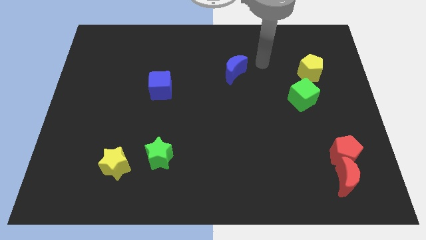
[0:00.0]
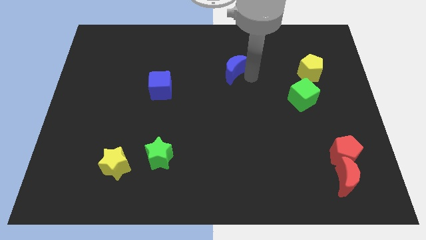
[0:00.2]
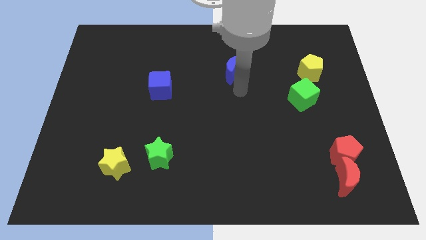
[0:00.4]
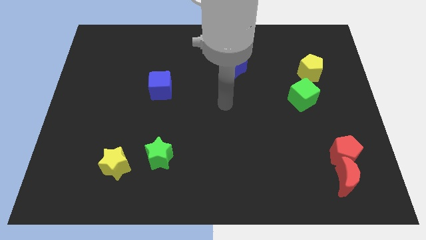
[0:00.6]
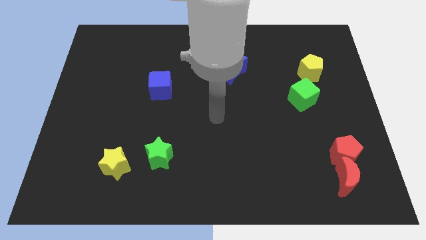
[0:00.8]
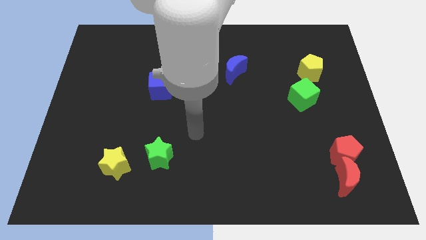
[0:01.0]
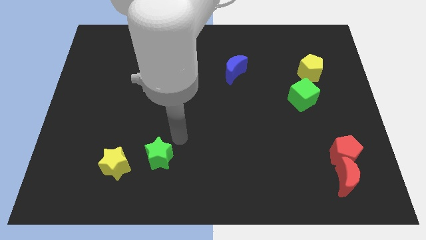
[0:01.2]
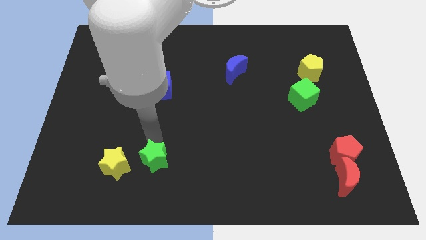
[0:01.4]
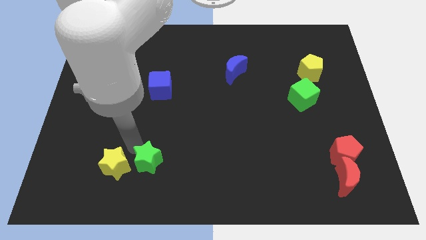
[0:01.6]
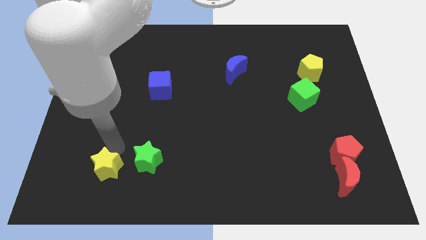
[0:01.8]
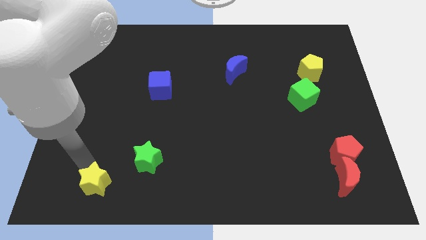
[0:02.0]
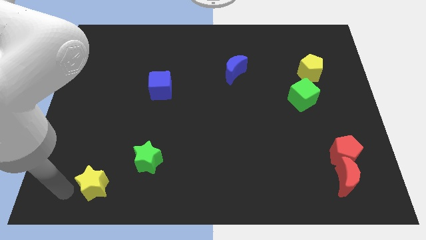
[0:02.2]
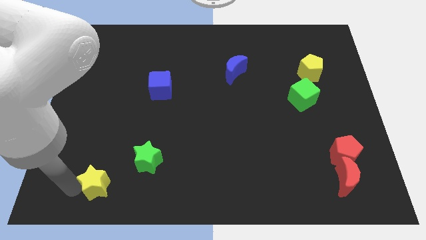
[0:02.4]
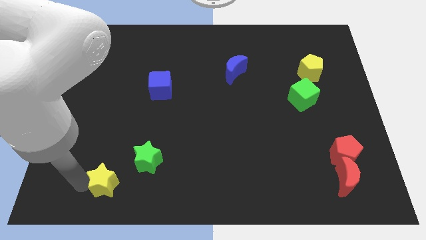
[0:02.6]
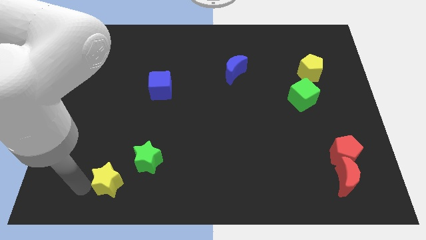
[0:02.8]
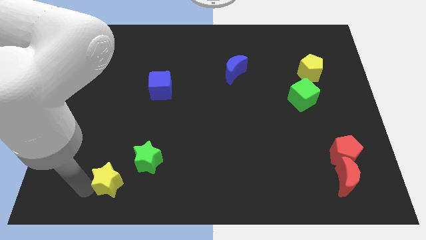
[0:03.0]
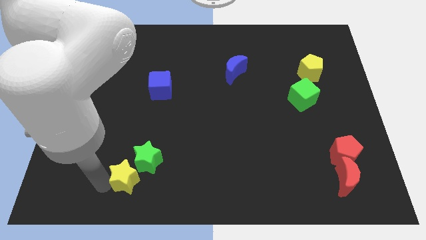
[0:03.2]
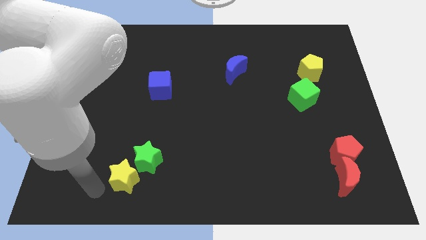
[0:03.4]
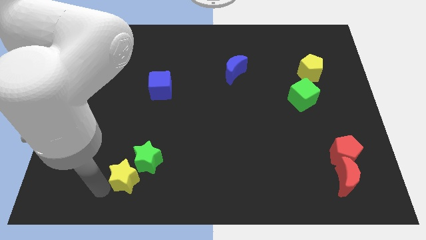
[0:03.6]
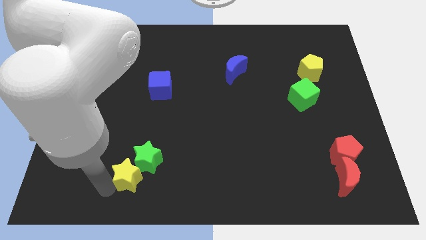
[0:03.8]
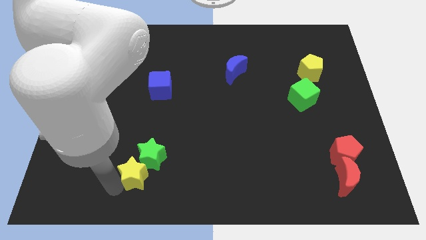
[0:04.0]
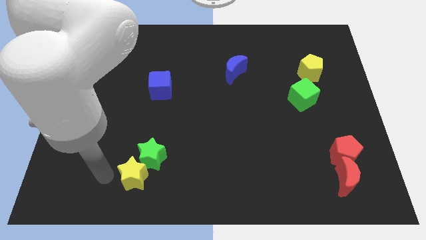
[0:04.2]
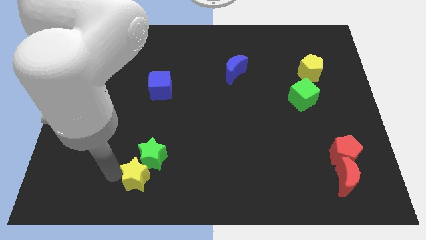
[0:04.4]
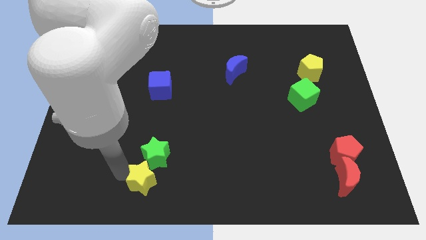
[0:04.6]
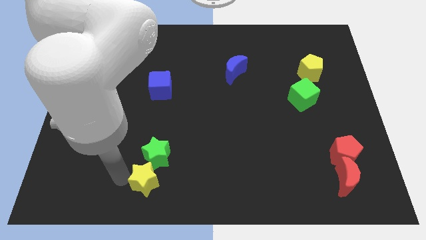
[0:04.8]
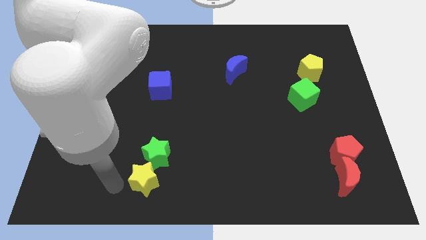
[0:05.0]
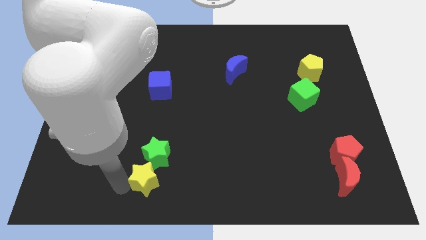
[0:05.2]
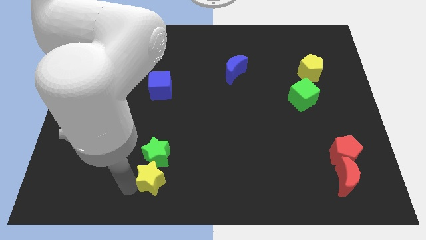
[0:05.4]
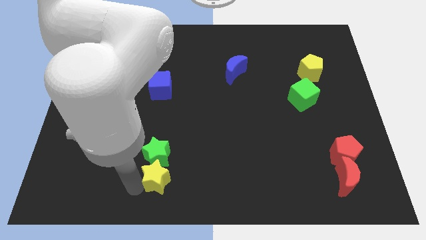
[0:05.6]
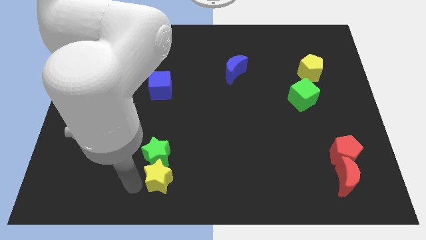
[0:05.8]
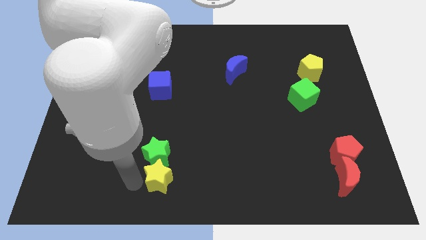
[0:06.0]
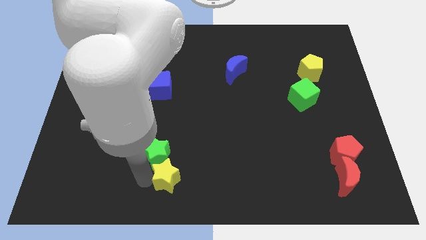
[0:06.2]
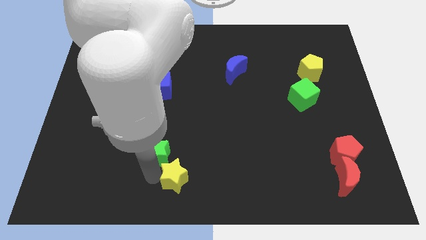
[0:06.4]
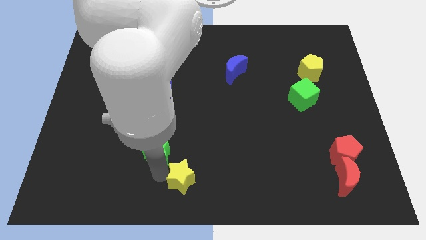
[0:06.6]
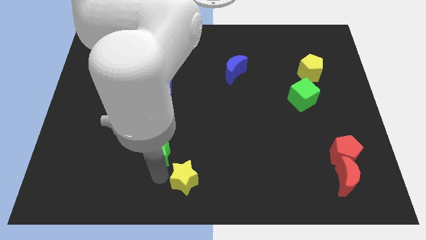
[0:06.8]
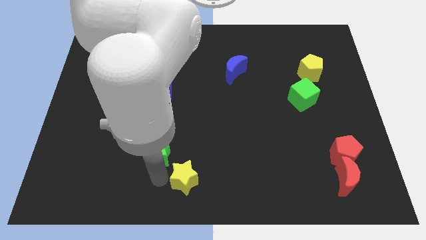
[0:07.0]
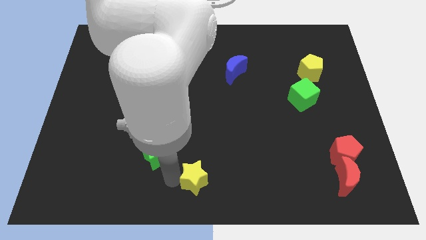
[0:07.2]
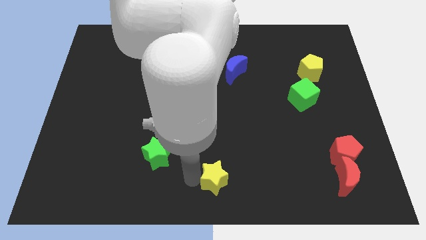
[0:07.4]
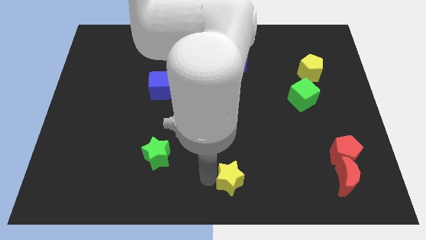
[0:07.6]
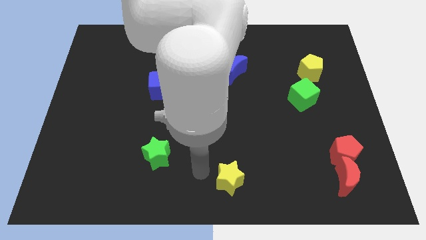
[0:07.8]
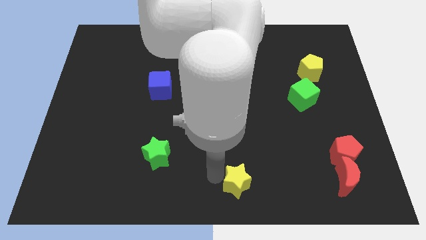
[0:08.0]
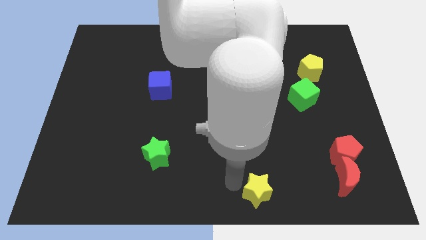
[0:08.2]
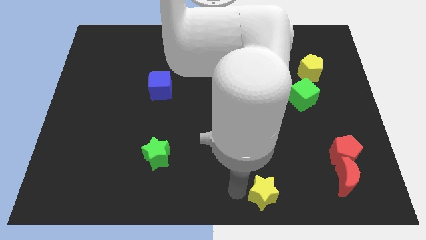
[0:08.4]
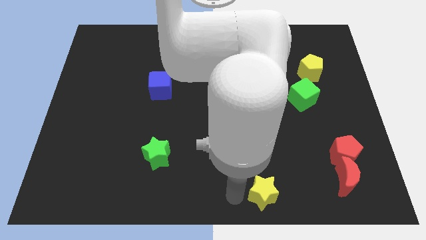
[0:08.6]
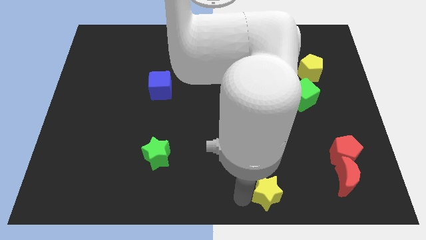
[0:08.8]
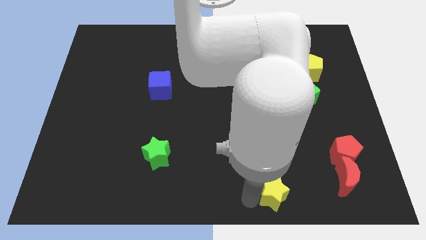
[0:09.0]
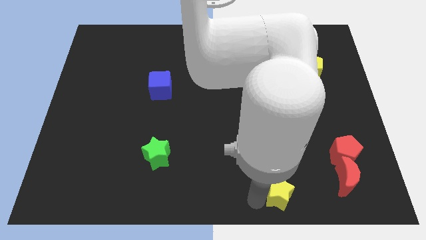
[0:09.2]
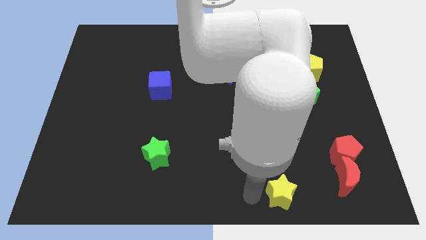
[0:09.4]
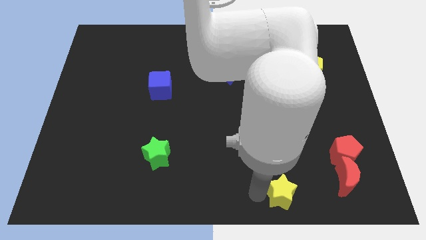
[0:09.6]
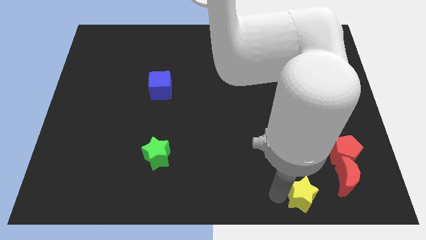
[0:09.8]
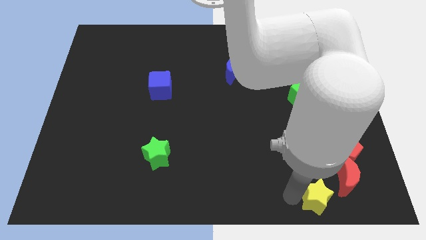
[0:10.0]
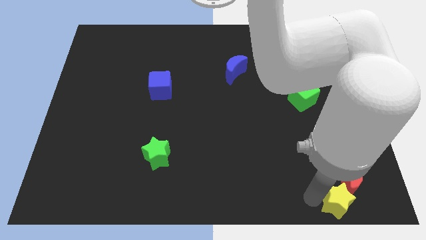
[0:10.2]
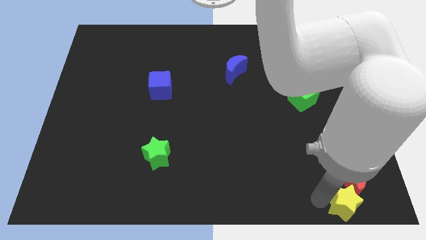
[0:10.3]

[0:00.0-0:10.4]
move the yellow star to the lower right corner

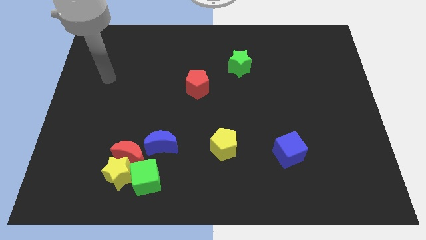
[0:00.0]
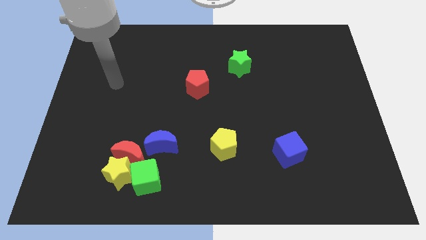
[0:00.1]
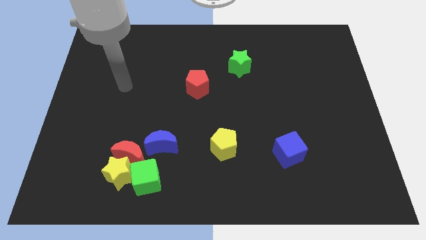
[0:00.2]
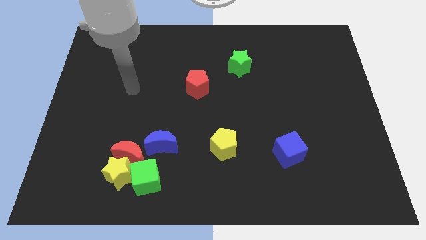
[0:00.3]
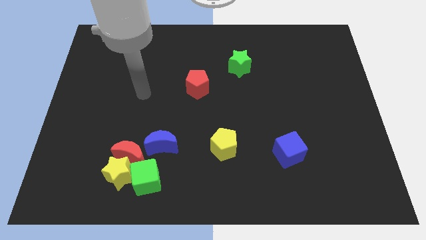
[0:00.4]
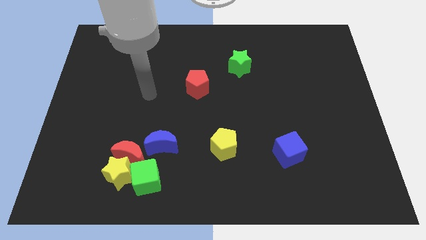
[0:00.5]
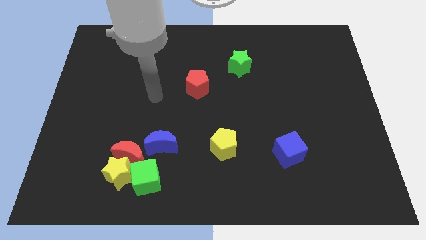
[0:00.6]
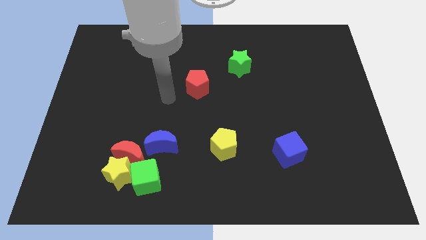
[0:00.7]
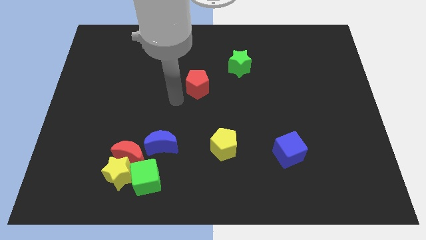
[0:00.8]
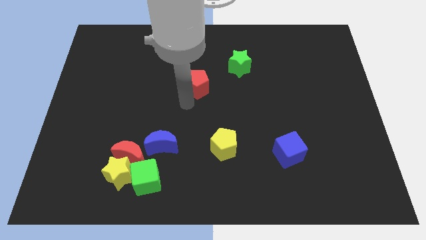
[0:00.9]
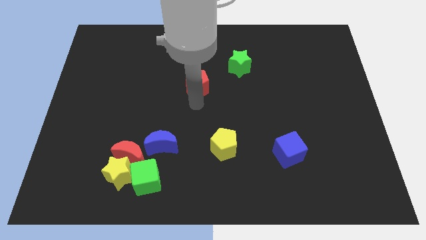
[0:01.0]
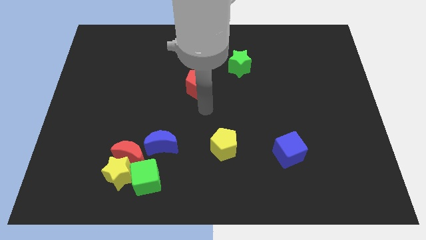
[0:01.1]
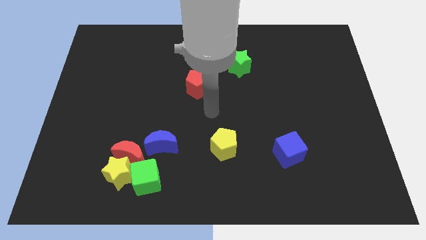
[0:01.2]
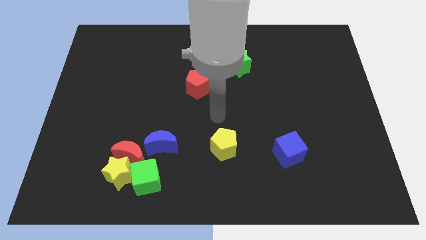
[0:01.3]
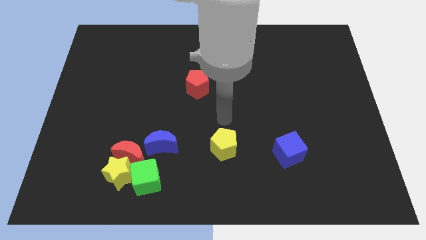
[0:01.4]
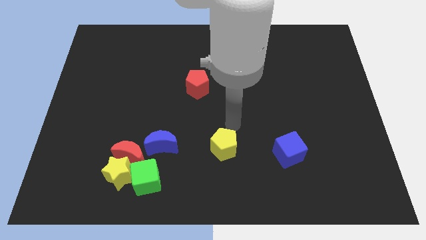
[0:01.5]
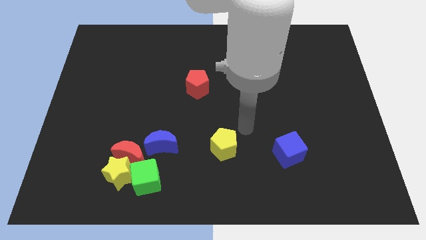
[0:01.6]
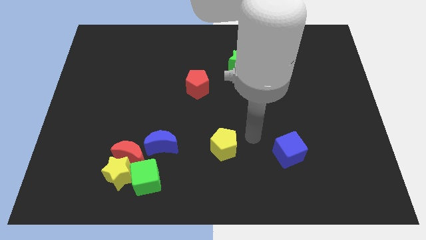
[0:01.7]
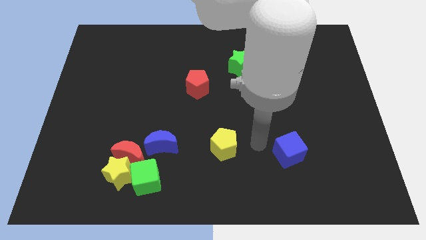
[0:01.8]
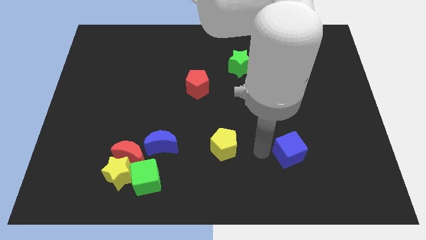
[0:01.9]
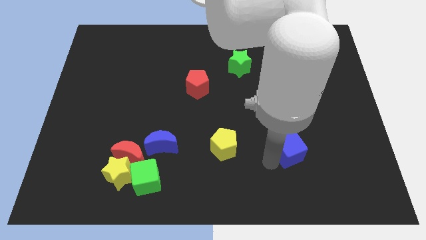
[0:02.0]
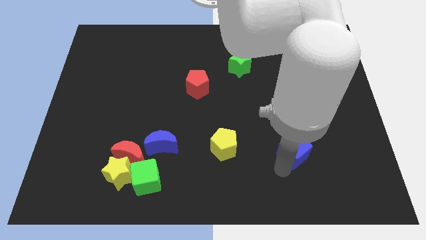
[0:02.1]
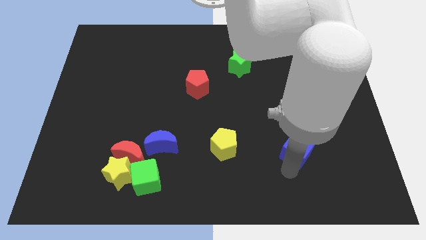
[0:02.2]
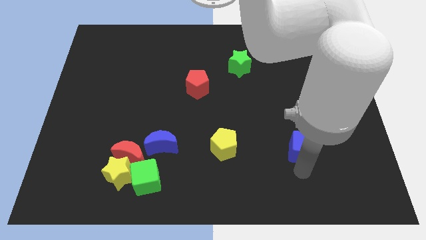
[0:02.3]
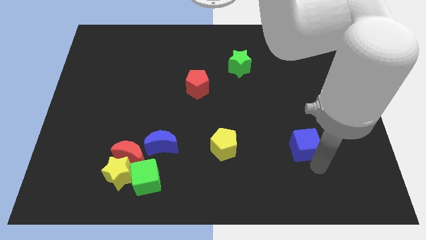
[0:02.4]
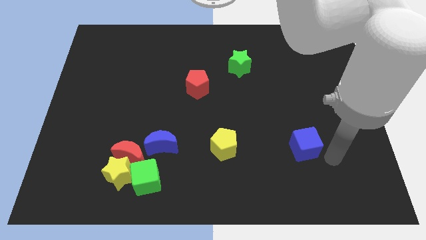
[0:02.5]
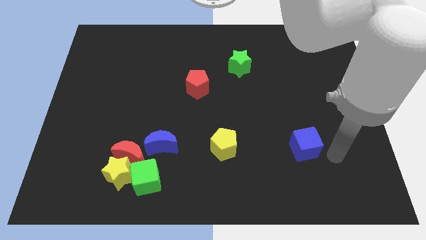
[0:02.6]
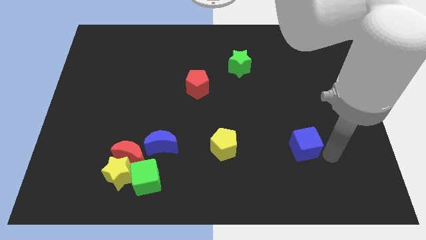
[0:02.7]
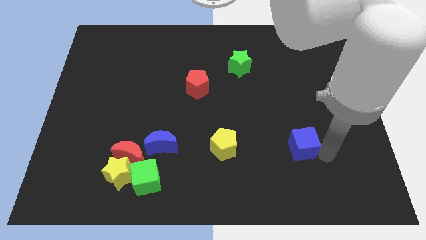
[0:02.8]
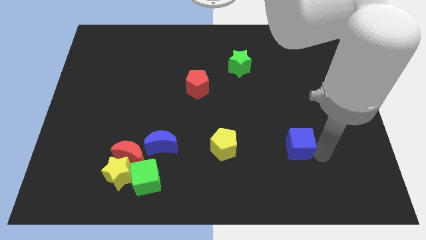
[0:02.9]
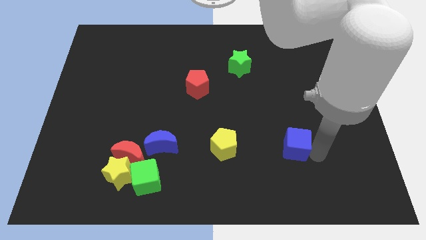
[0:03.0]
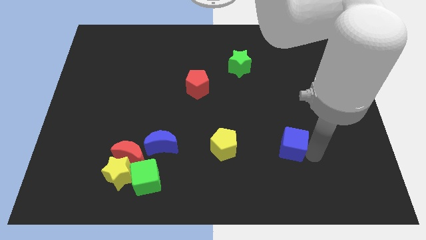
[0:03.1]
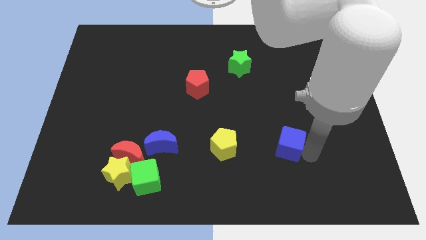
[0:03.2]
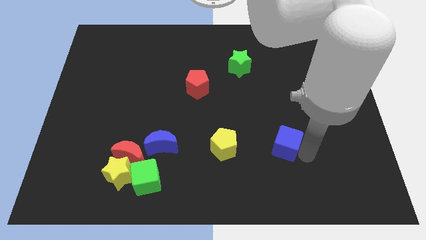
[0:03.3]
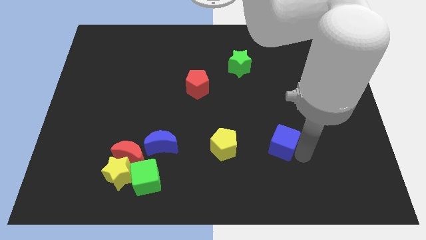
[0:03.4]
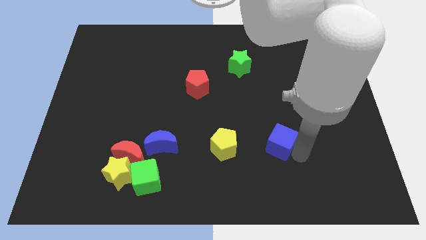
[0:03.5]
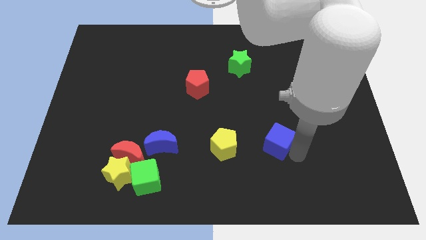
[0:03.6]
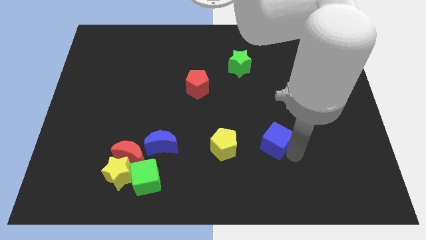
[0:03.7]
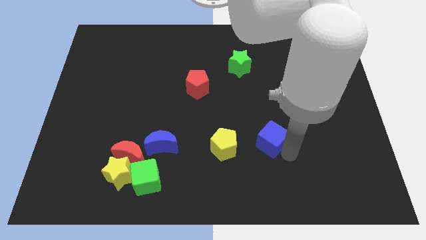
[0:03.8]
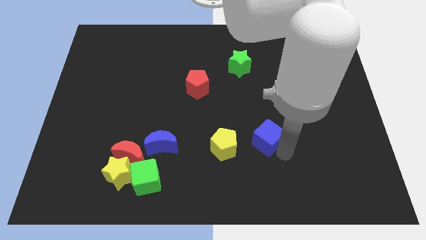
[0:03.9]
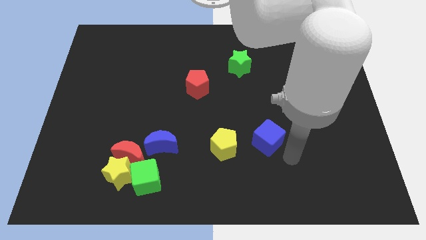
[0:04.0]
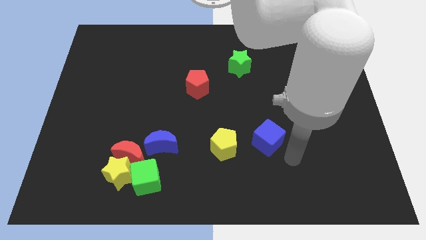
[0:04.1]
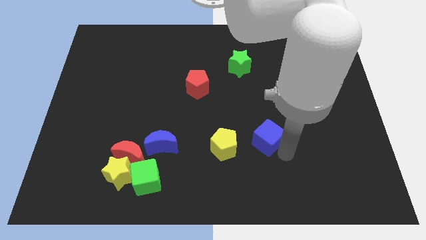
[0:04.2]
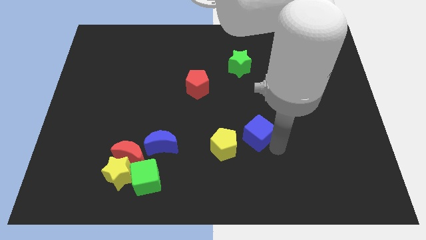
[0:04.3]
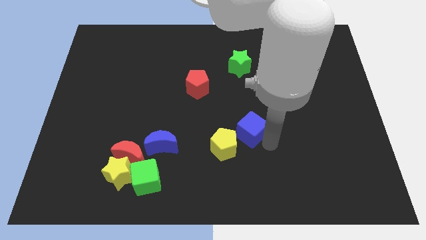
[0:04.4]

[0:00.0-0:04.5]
put the blue cube to the center
